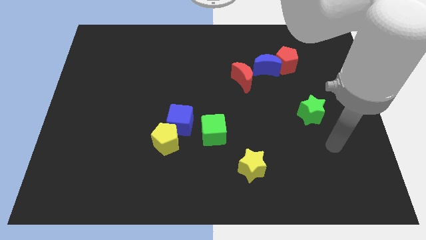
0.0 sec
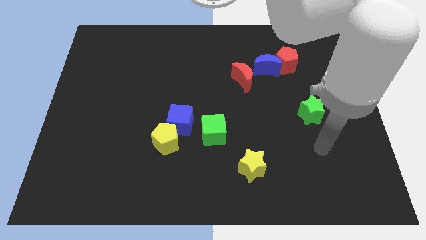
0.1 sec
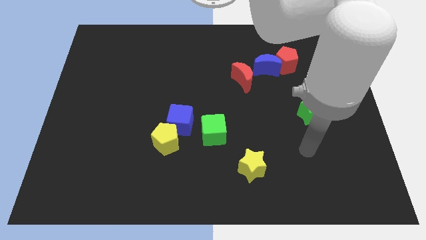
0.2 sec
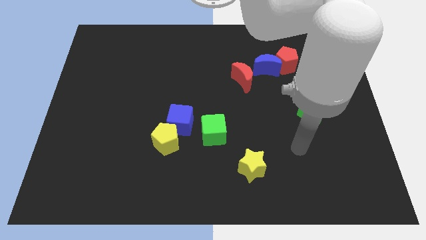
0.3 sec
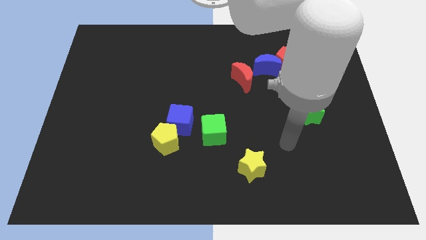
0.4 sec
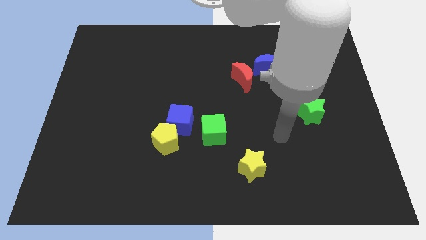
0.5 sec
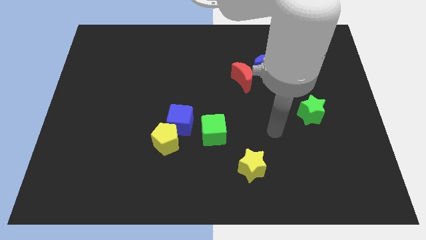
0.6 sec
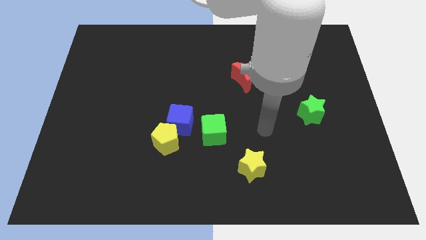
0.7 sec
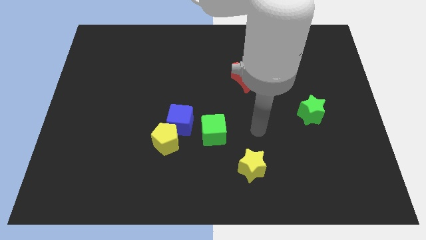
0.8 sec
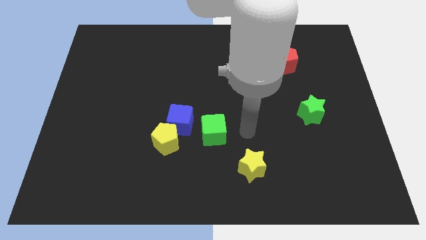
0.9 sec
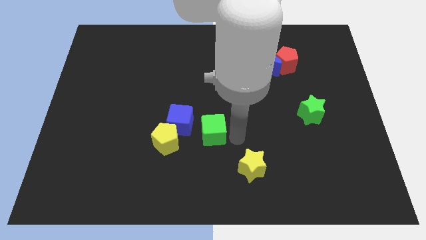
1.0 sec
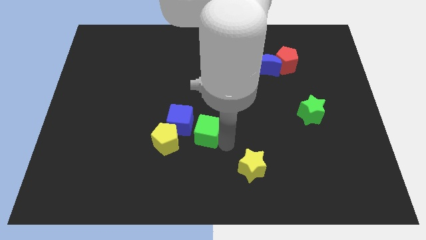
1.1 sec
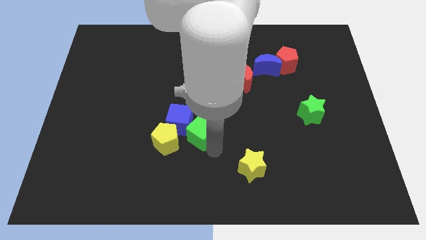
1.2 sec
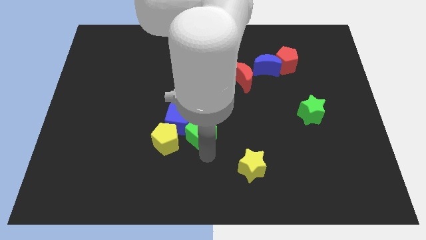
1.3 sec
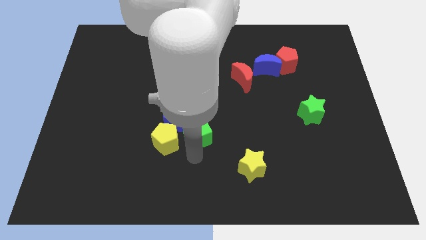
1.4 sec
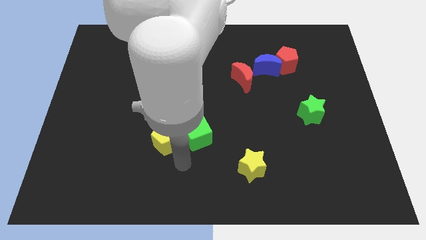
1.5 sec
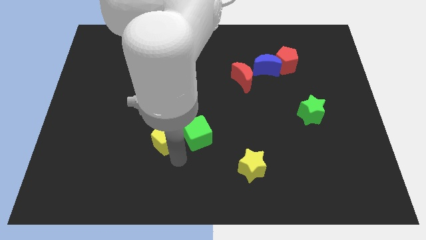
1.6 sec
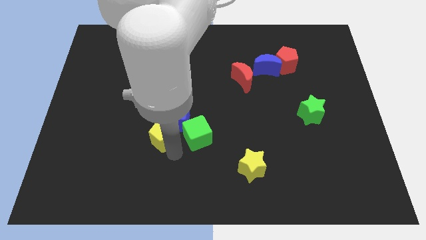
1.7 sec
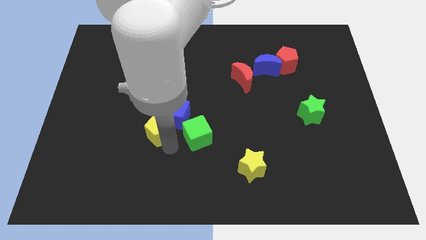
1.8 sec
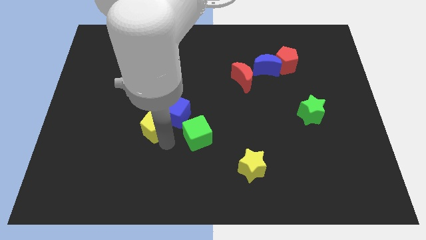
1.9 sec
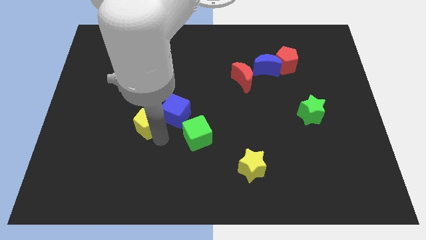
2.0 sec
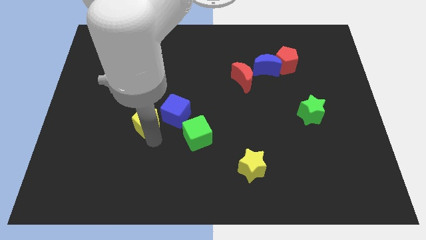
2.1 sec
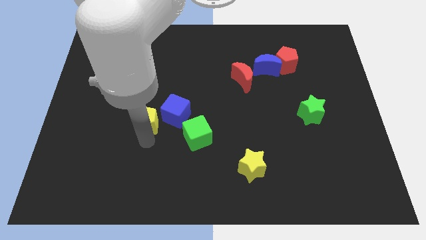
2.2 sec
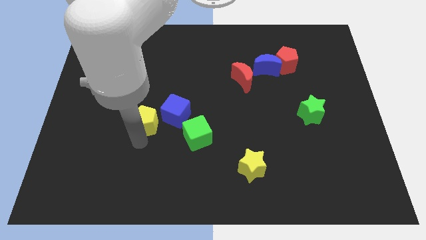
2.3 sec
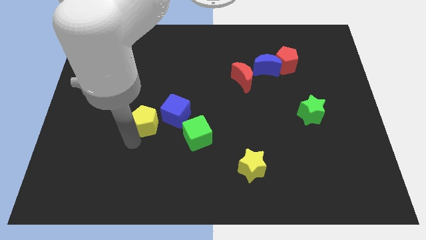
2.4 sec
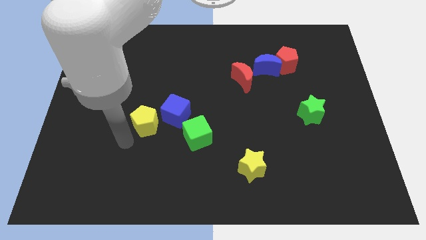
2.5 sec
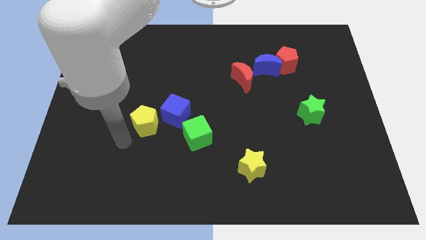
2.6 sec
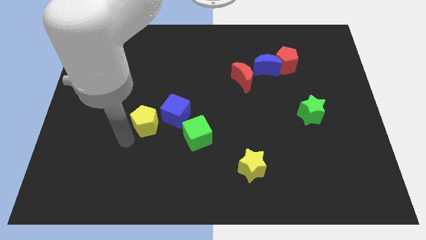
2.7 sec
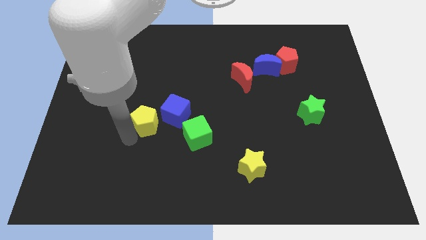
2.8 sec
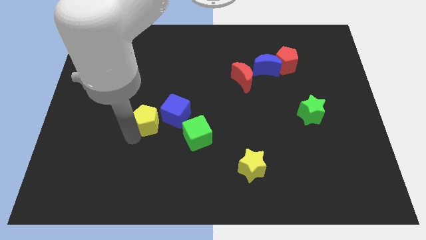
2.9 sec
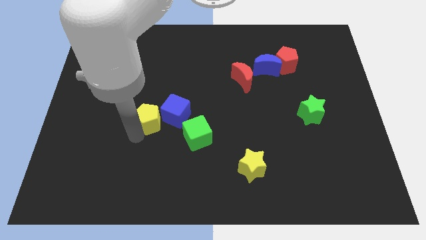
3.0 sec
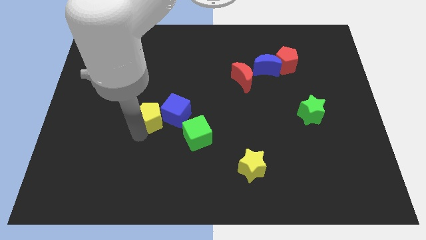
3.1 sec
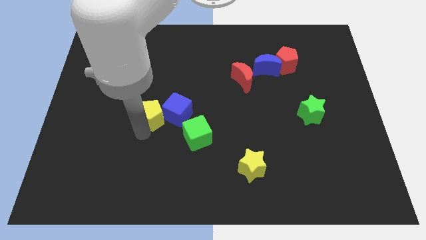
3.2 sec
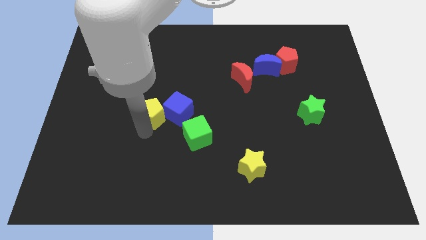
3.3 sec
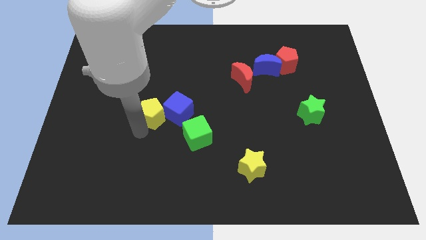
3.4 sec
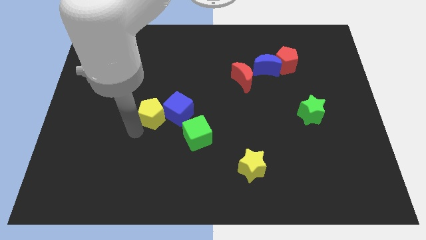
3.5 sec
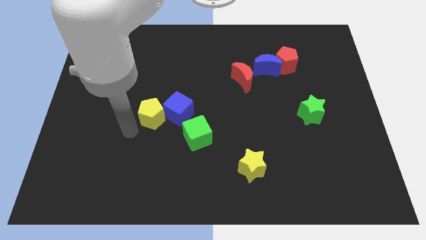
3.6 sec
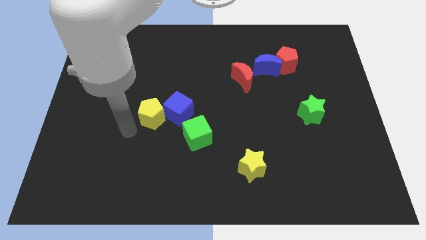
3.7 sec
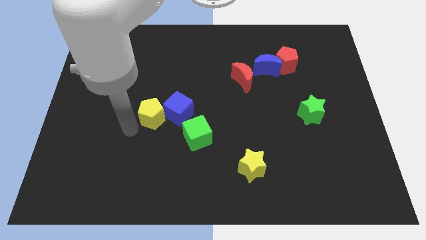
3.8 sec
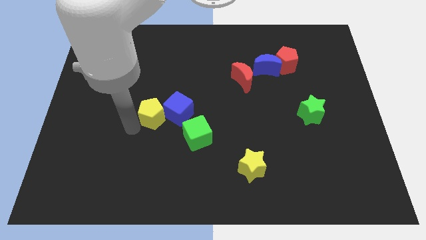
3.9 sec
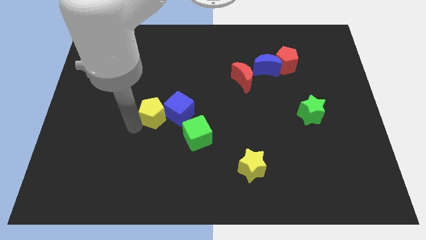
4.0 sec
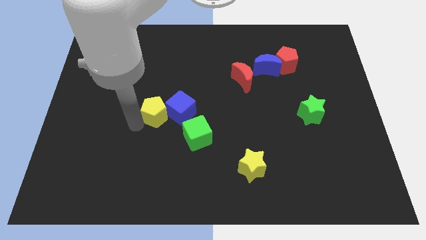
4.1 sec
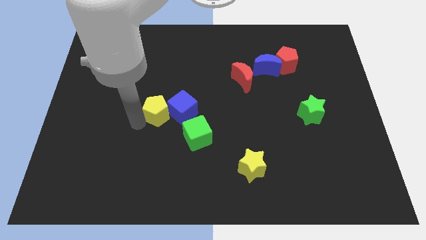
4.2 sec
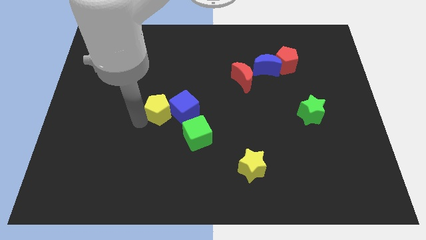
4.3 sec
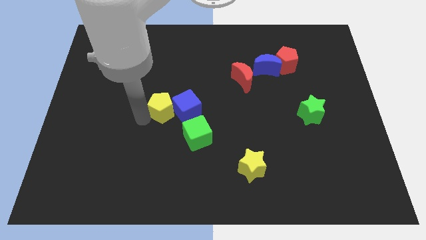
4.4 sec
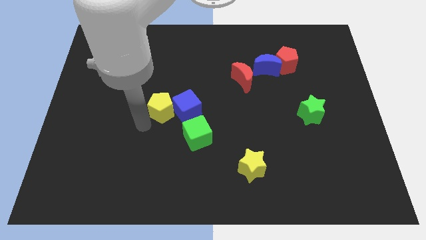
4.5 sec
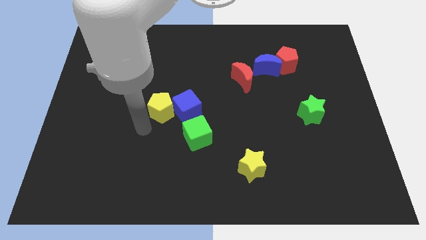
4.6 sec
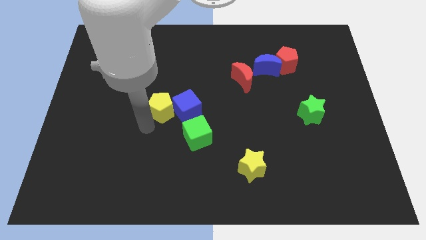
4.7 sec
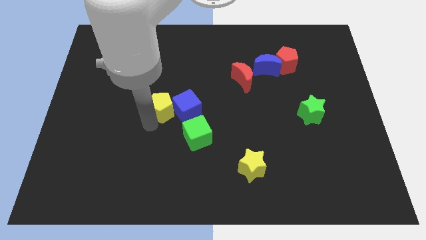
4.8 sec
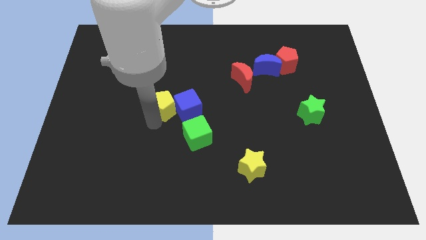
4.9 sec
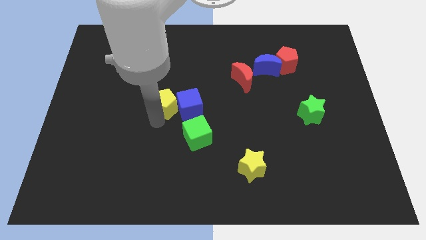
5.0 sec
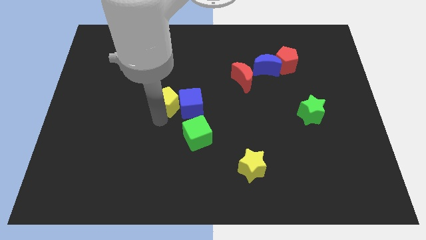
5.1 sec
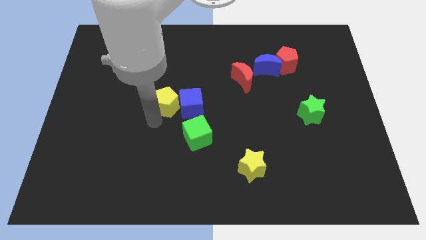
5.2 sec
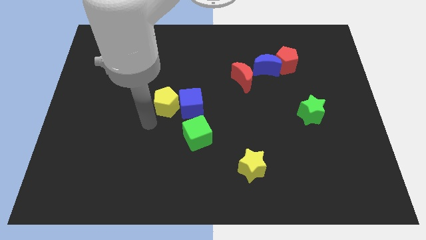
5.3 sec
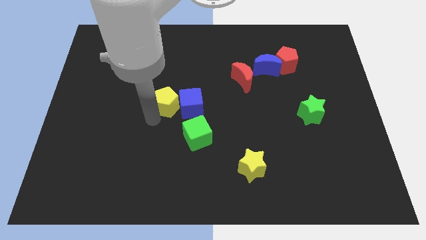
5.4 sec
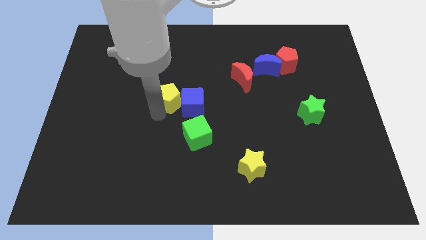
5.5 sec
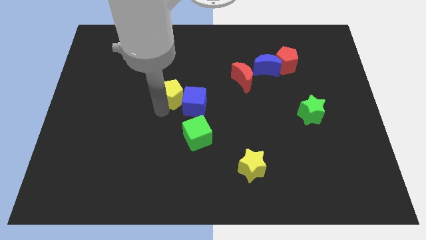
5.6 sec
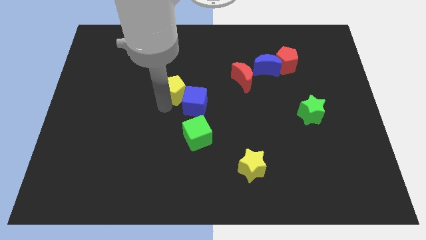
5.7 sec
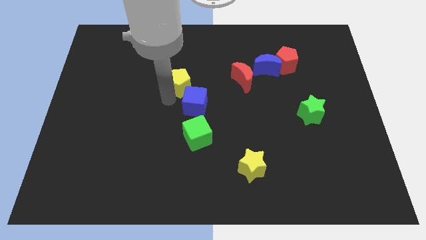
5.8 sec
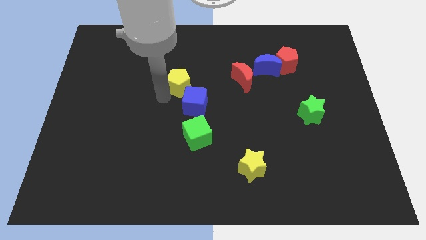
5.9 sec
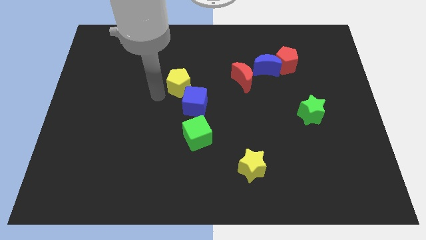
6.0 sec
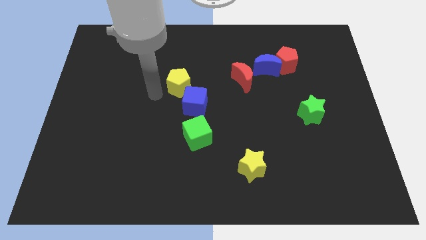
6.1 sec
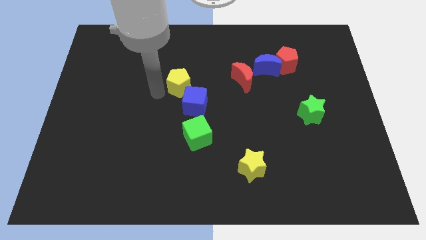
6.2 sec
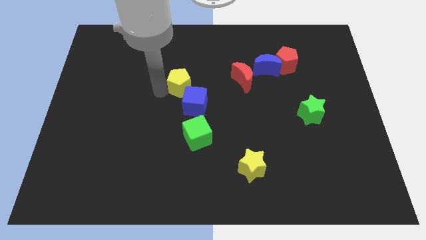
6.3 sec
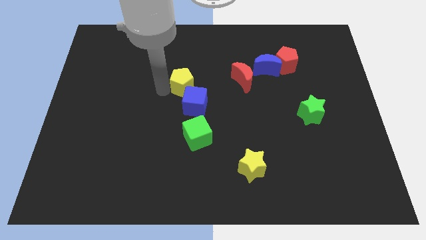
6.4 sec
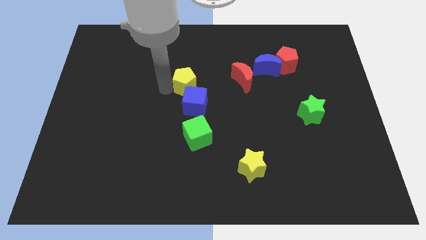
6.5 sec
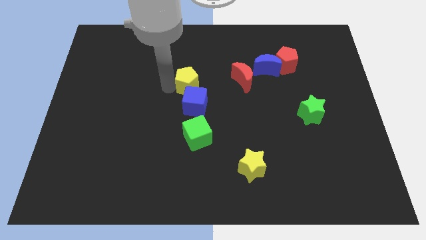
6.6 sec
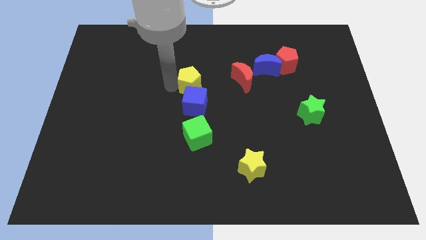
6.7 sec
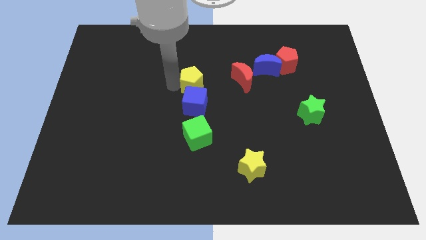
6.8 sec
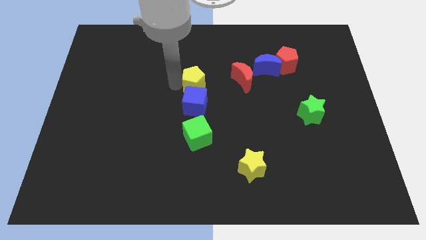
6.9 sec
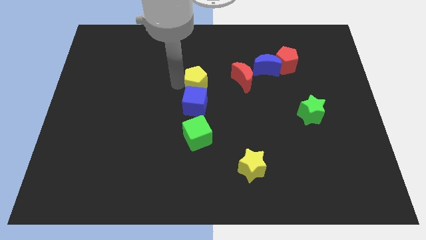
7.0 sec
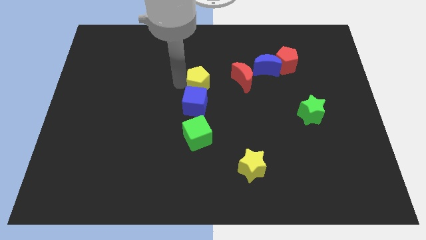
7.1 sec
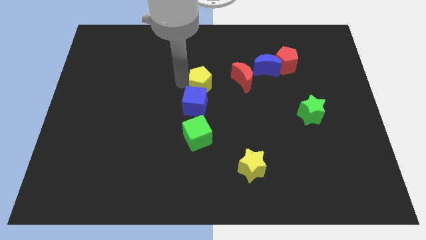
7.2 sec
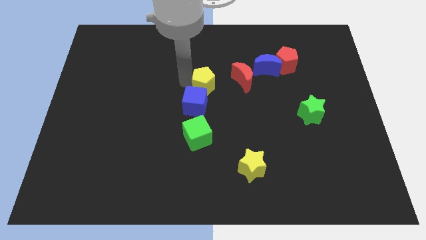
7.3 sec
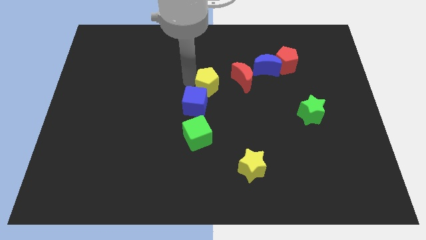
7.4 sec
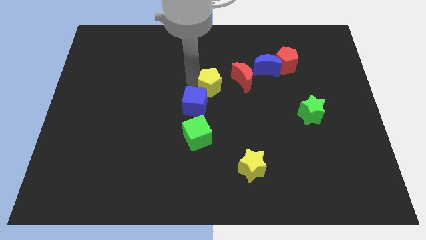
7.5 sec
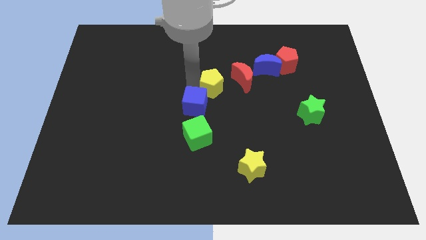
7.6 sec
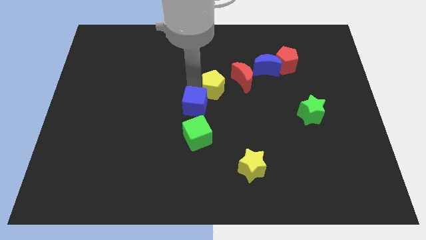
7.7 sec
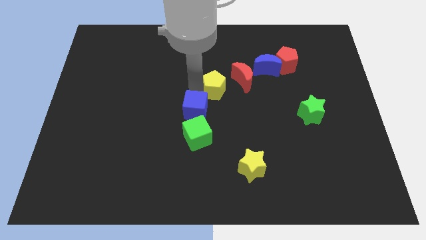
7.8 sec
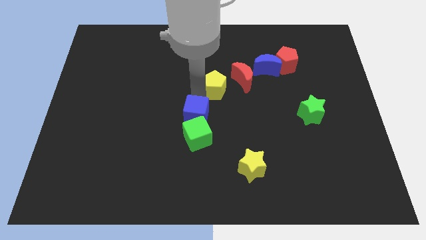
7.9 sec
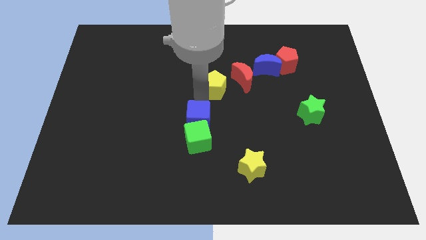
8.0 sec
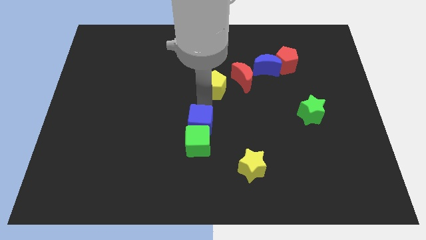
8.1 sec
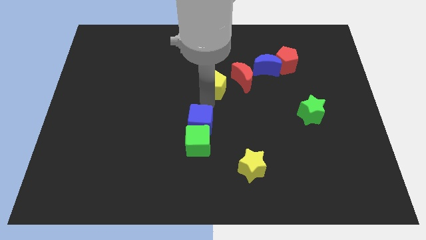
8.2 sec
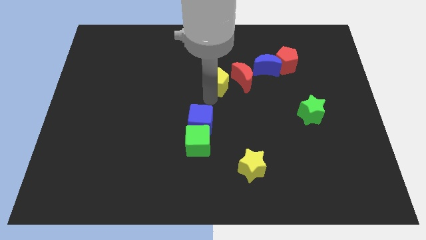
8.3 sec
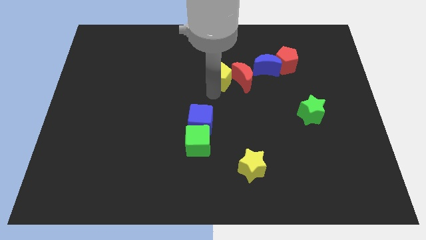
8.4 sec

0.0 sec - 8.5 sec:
put the yellow pentagon left of the blue moon

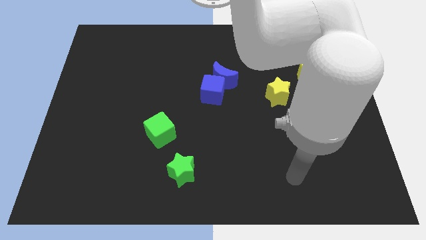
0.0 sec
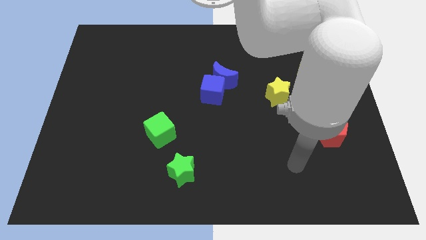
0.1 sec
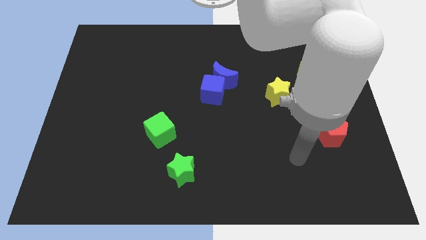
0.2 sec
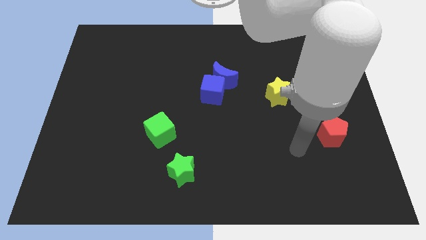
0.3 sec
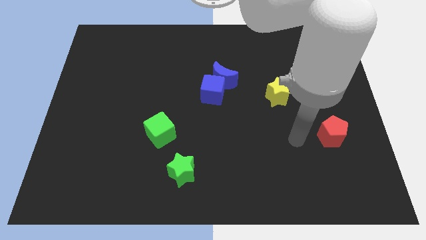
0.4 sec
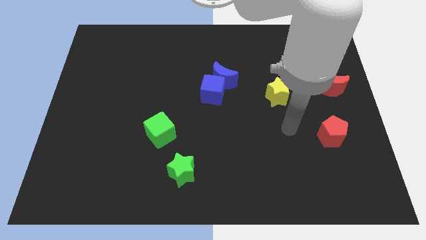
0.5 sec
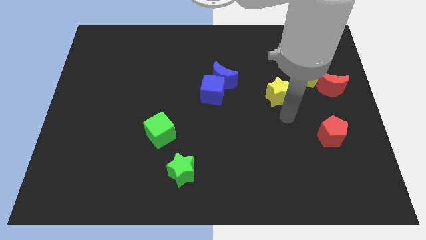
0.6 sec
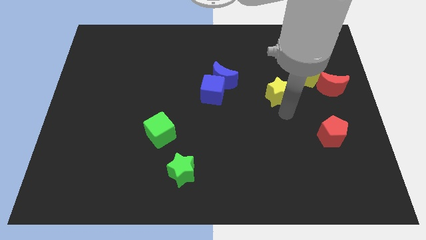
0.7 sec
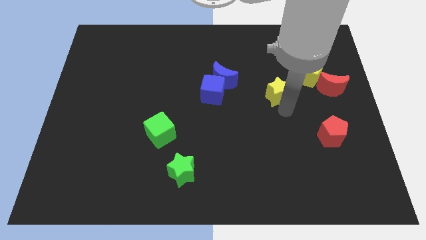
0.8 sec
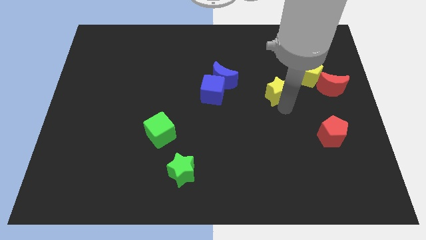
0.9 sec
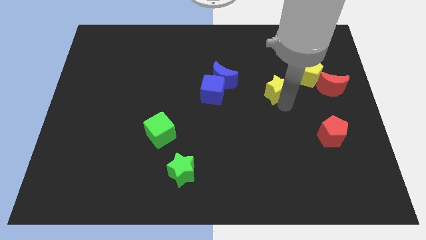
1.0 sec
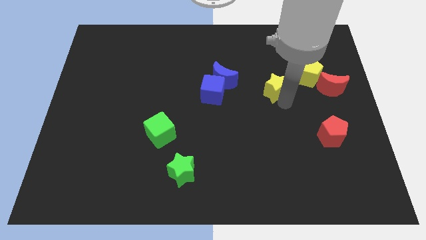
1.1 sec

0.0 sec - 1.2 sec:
move the yellow star to the left of the yellow pentagon
